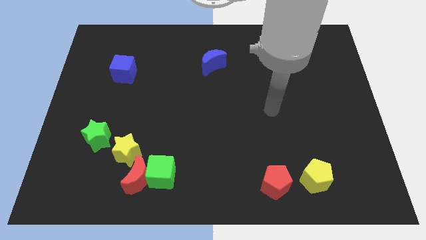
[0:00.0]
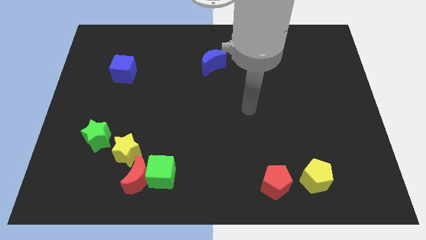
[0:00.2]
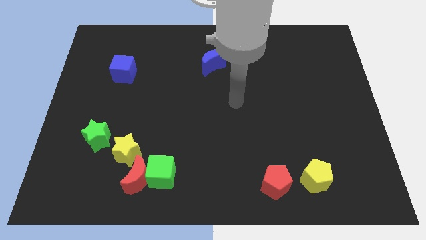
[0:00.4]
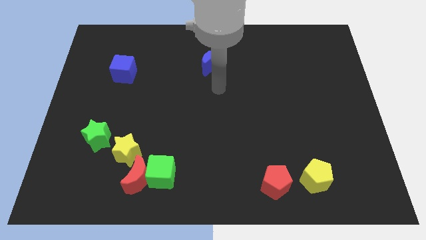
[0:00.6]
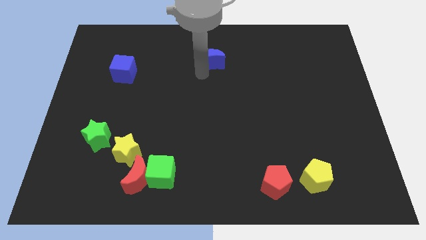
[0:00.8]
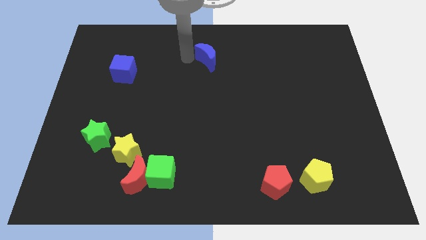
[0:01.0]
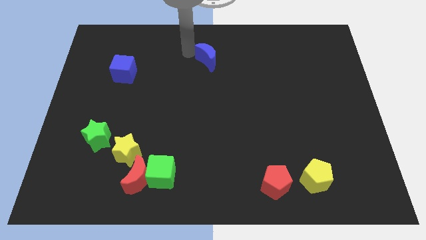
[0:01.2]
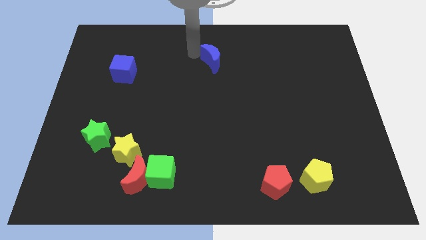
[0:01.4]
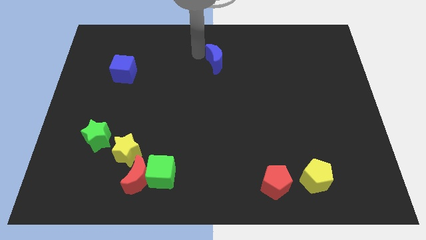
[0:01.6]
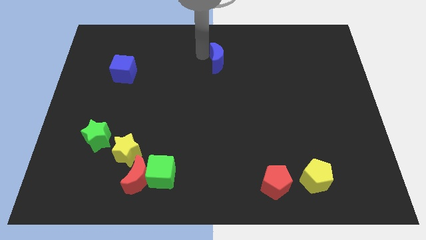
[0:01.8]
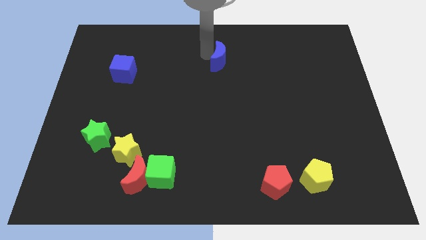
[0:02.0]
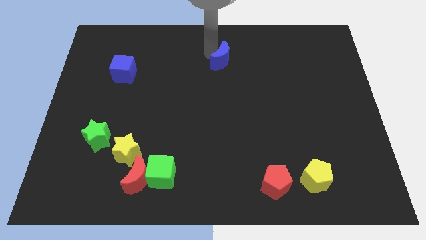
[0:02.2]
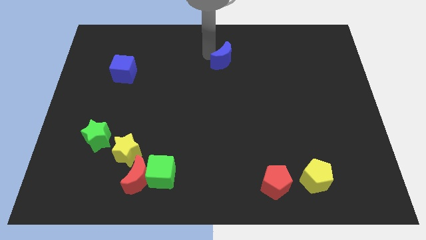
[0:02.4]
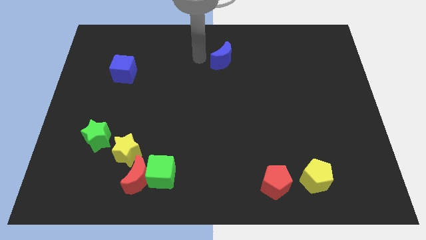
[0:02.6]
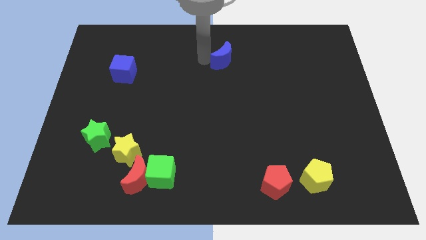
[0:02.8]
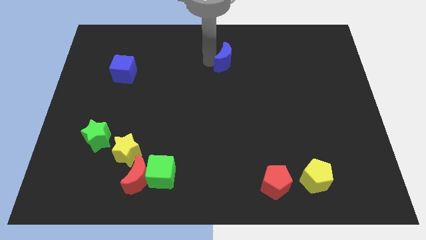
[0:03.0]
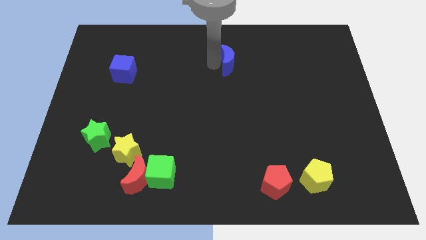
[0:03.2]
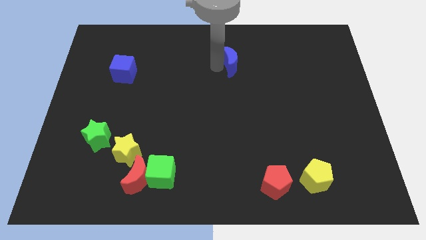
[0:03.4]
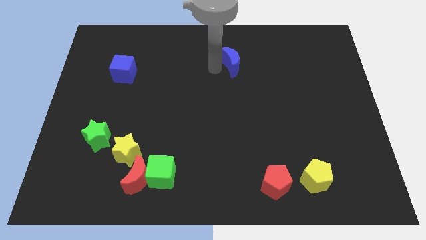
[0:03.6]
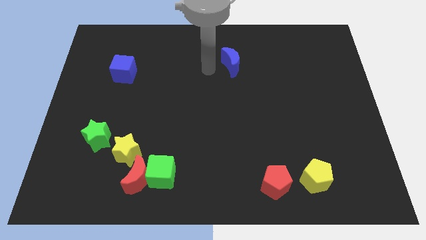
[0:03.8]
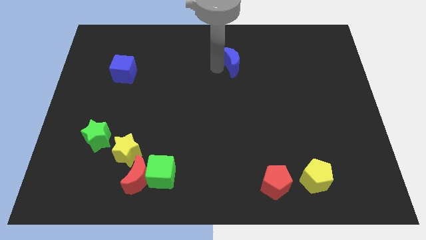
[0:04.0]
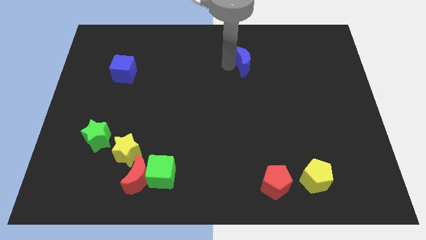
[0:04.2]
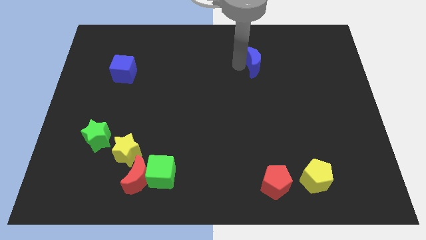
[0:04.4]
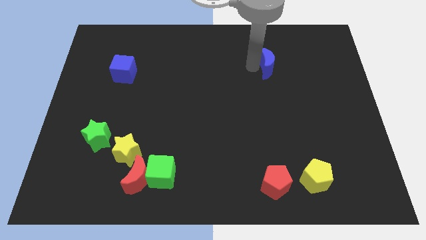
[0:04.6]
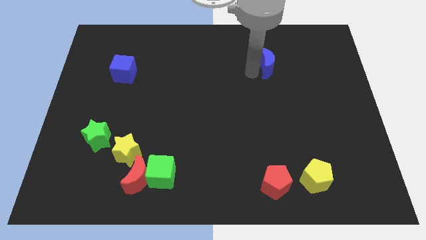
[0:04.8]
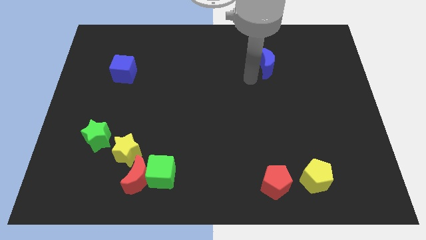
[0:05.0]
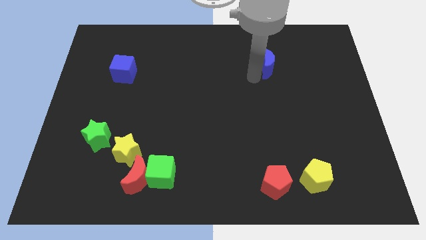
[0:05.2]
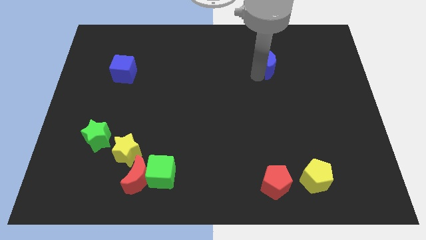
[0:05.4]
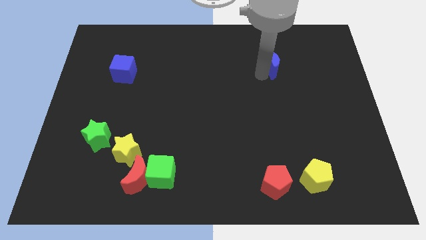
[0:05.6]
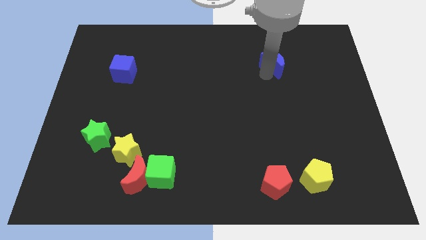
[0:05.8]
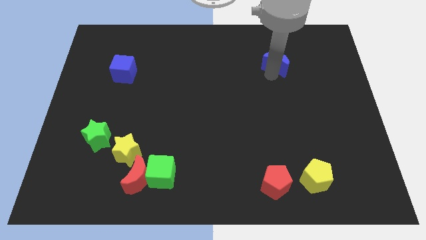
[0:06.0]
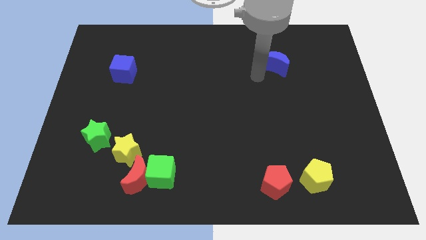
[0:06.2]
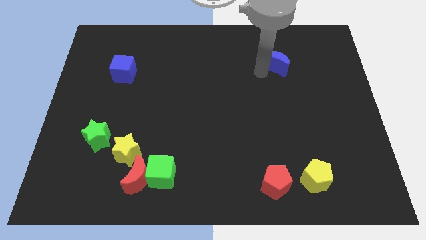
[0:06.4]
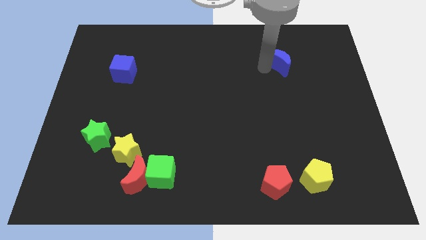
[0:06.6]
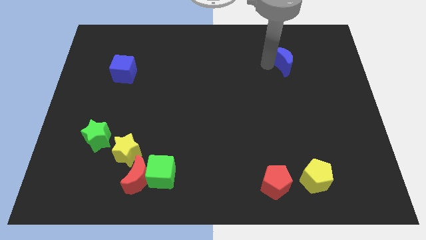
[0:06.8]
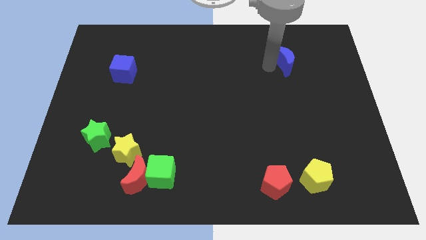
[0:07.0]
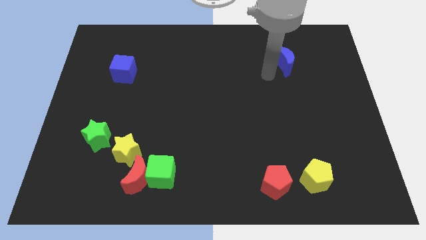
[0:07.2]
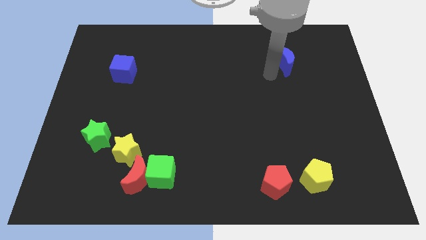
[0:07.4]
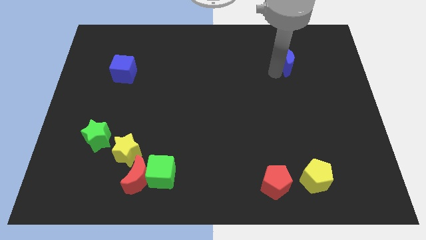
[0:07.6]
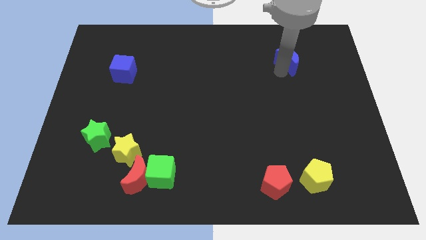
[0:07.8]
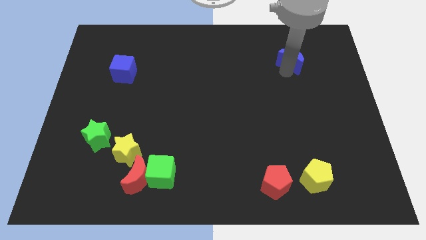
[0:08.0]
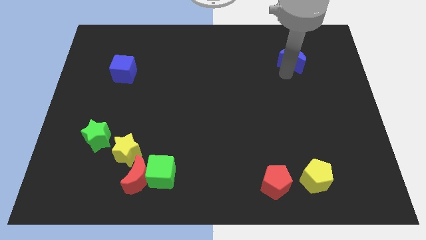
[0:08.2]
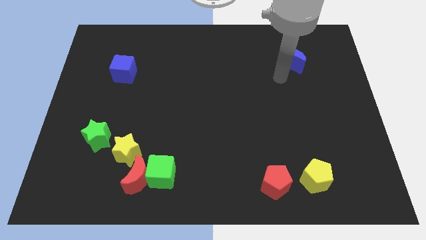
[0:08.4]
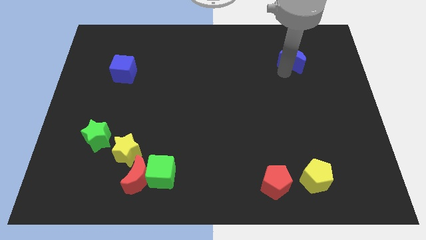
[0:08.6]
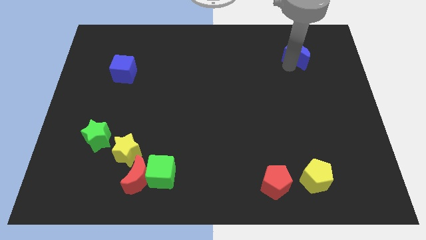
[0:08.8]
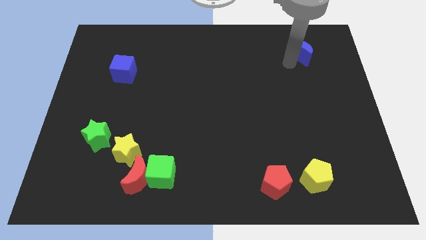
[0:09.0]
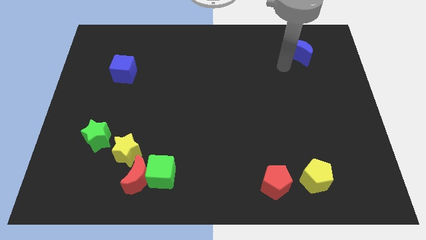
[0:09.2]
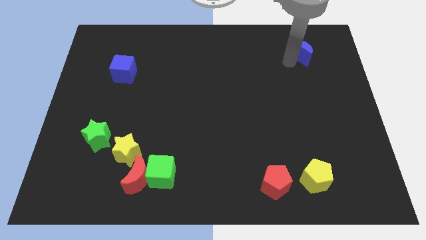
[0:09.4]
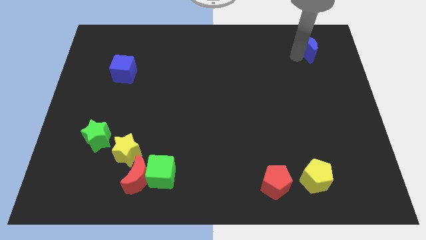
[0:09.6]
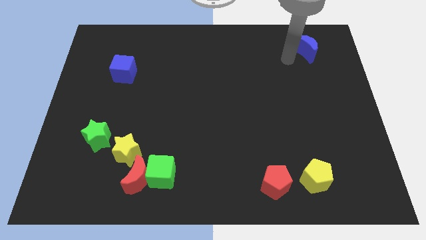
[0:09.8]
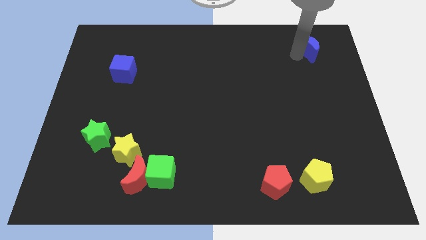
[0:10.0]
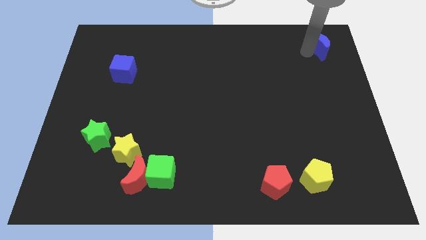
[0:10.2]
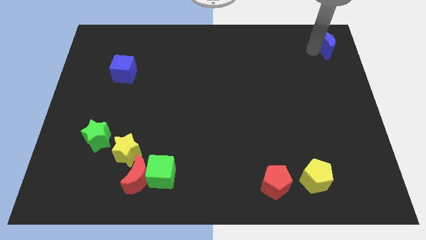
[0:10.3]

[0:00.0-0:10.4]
slide the blue moon to the top right corner
